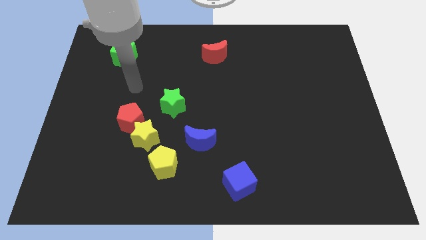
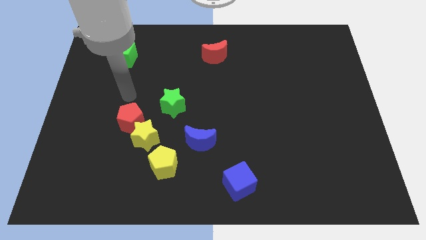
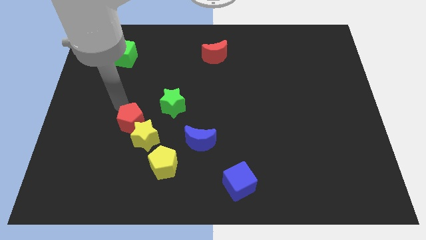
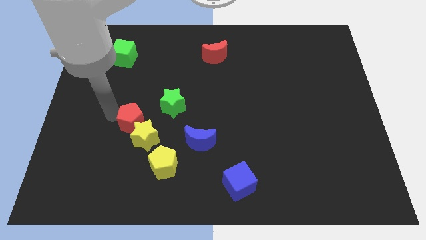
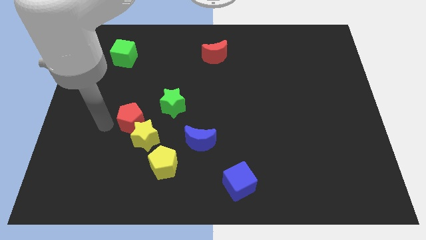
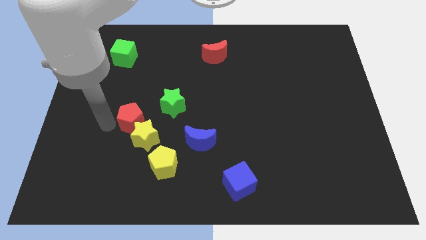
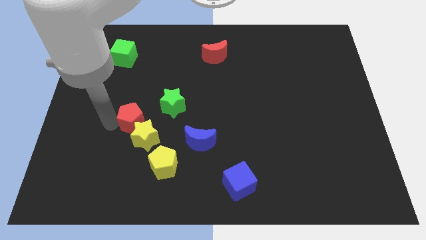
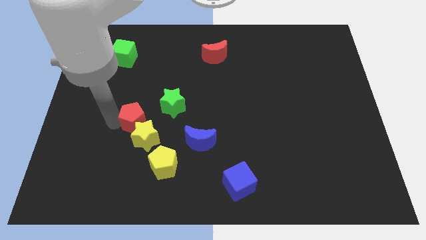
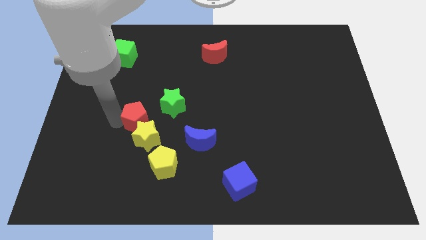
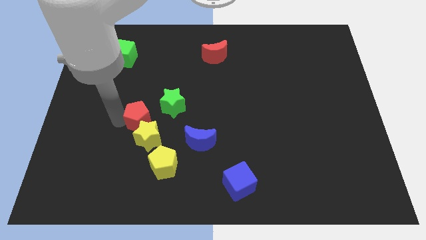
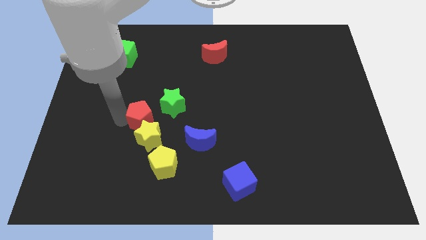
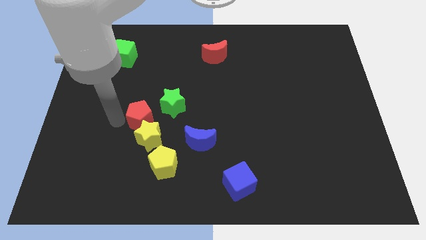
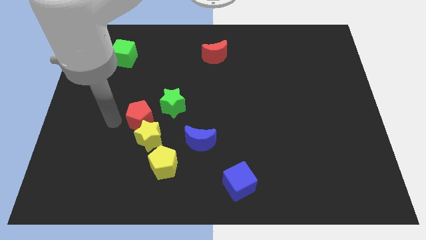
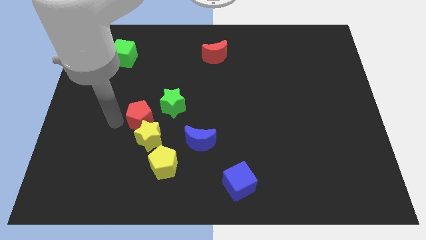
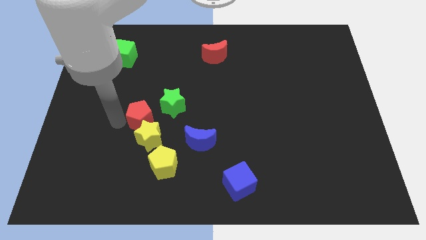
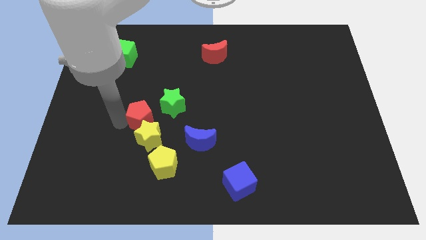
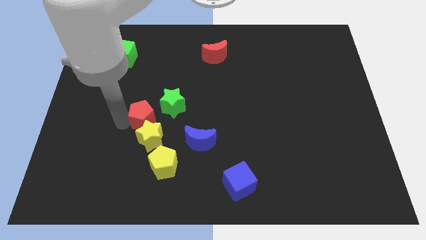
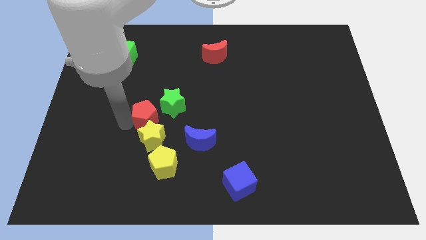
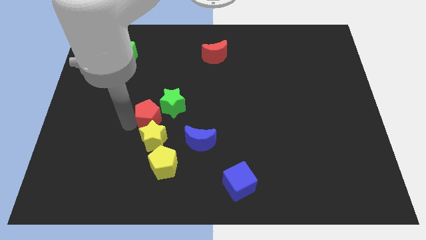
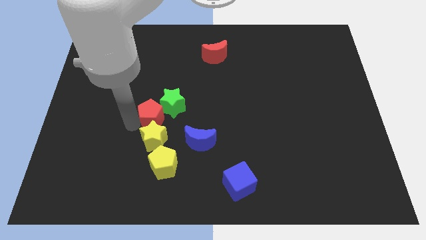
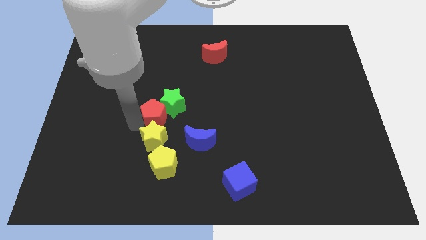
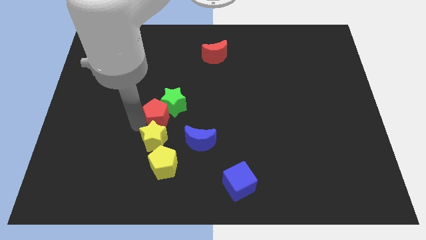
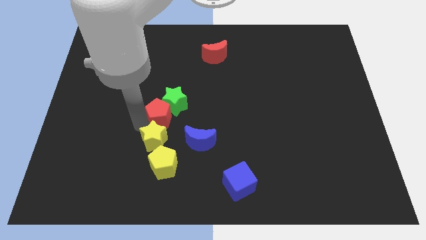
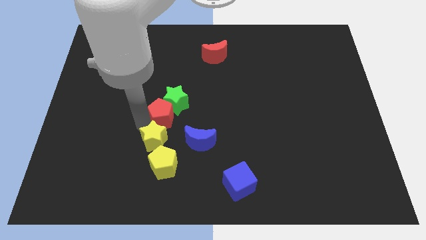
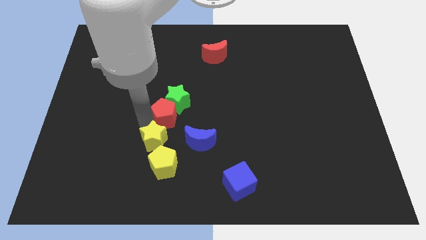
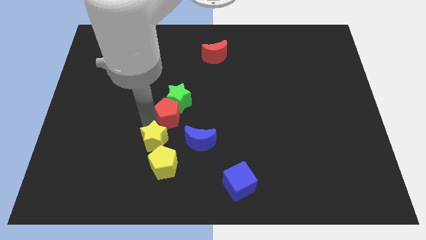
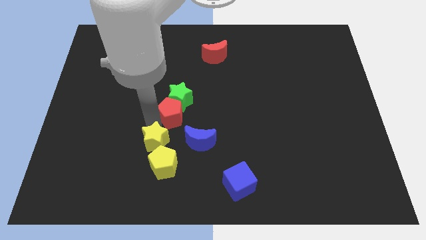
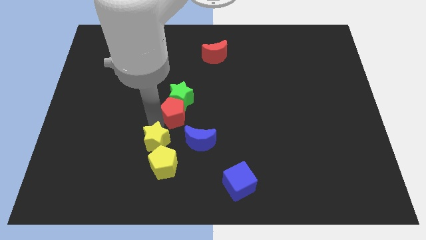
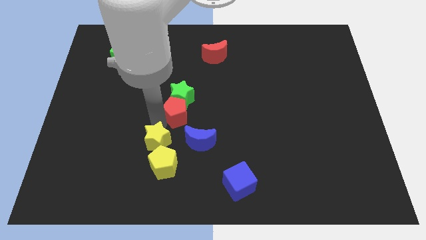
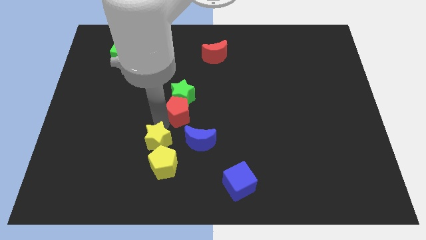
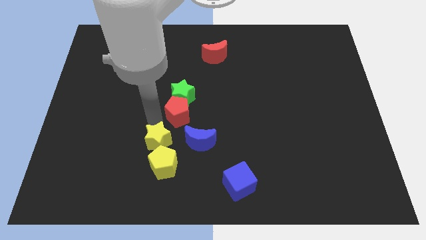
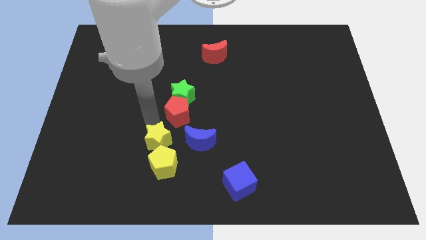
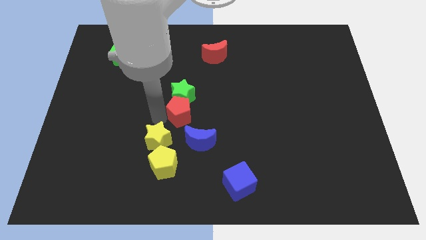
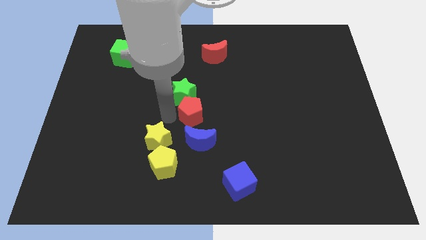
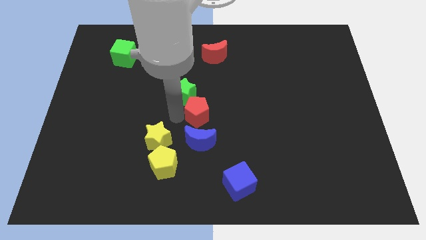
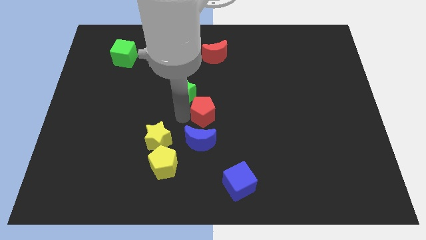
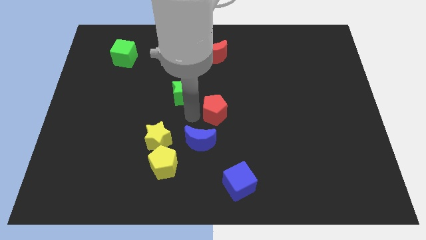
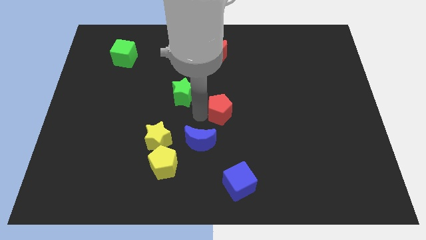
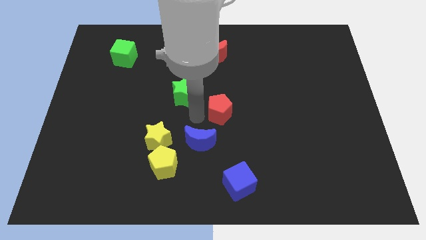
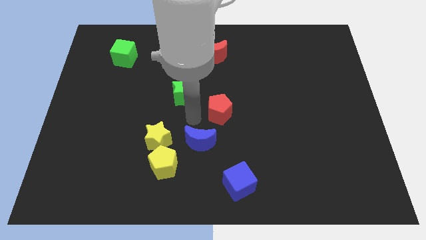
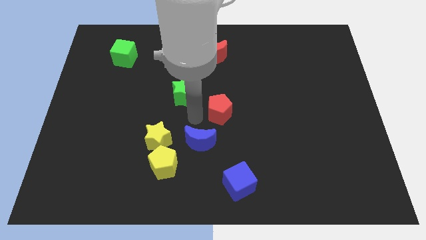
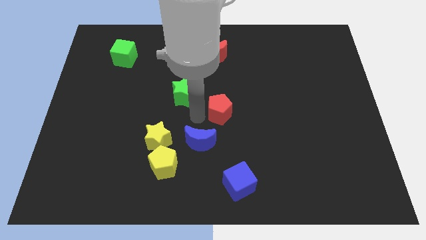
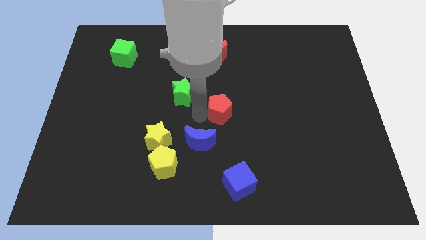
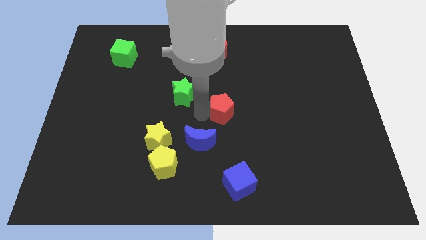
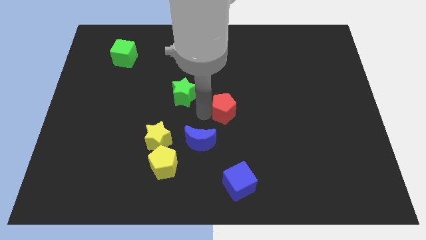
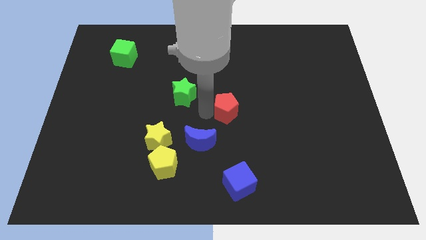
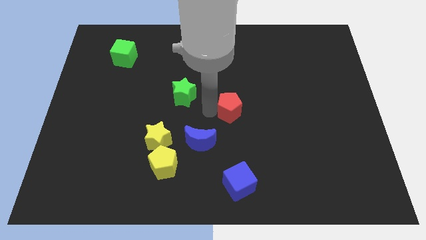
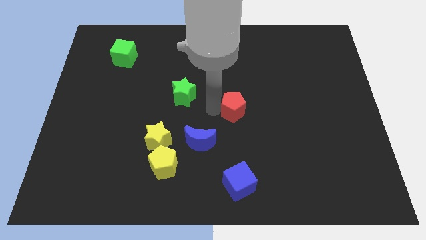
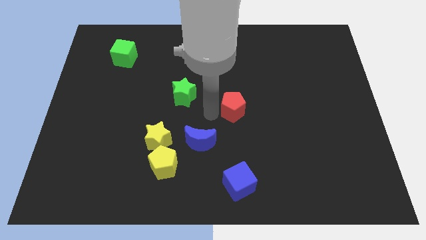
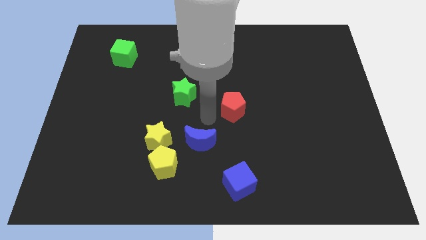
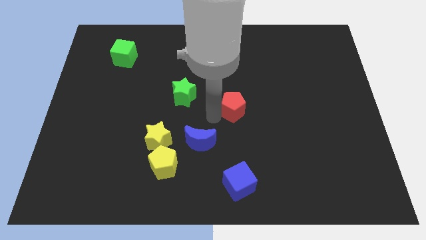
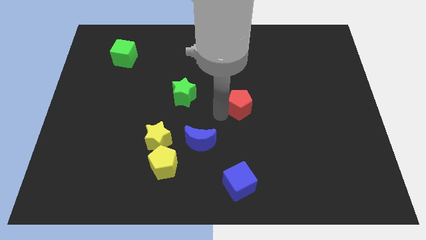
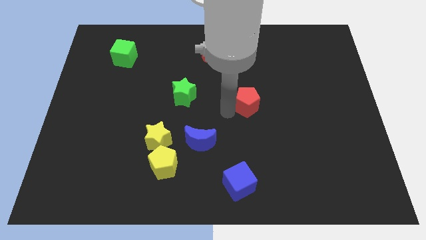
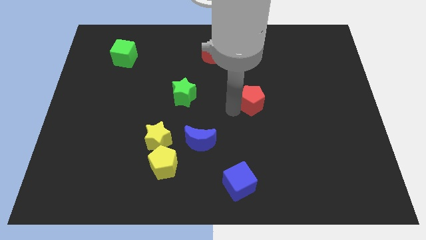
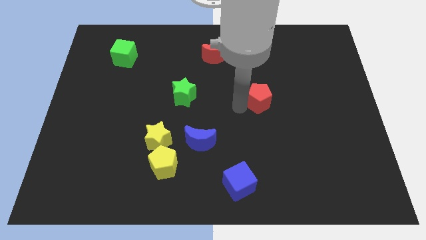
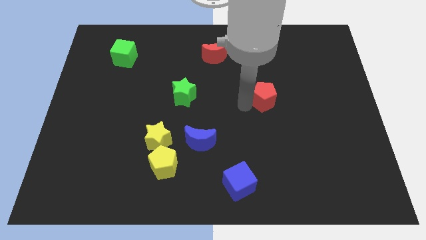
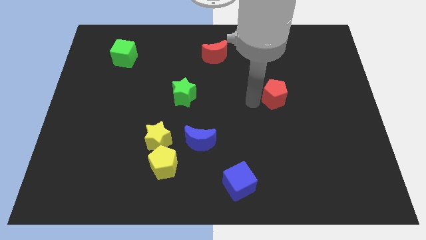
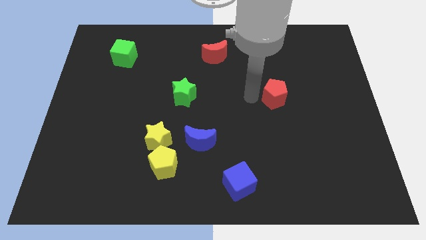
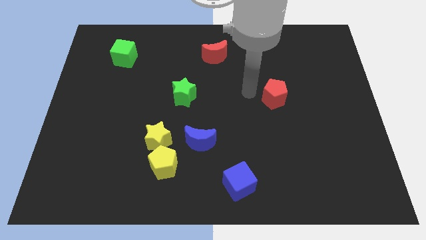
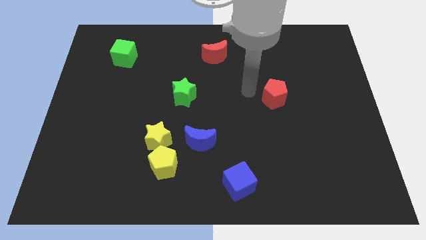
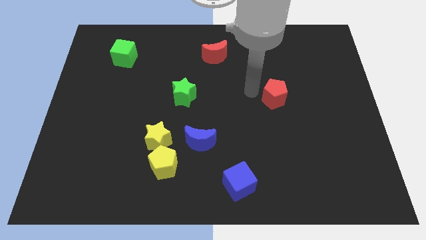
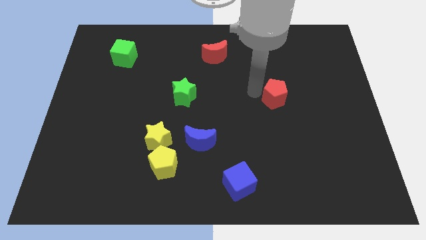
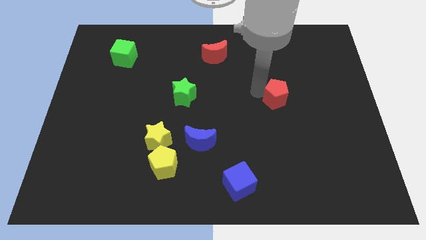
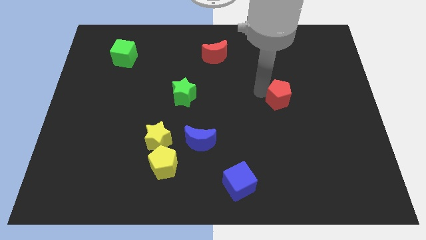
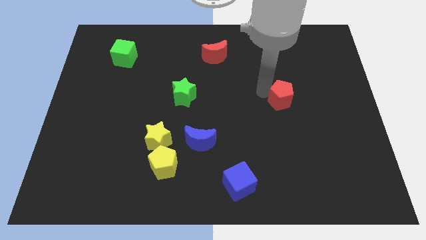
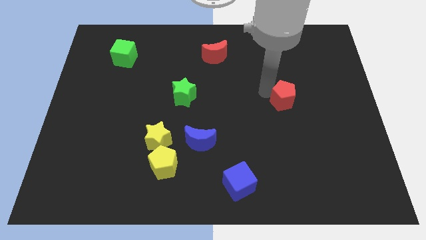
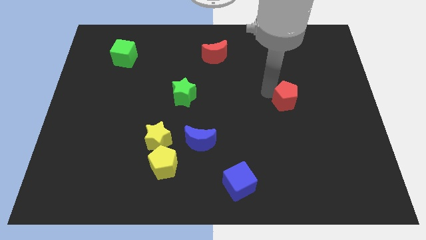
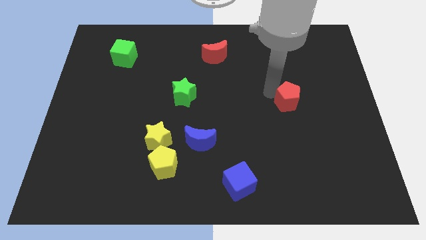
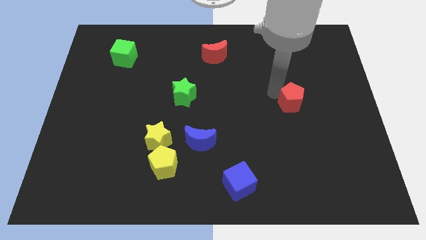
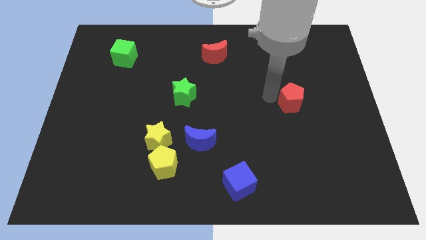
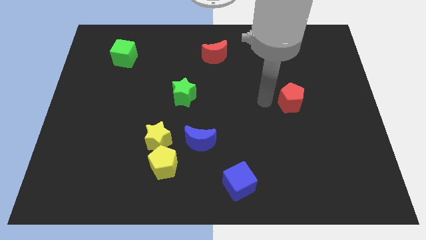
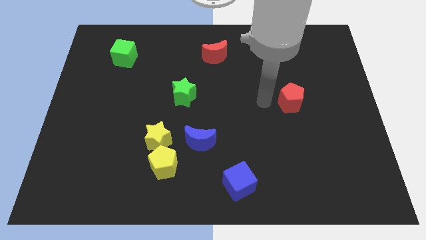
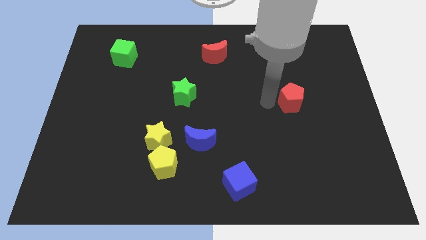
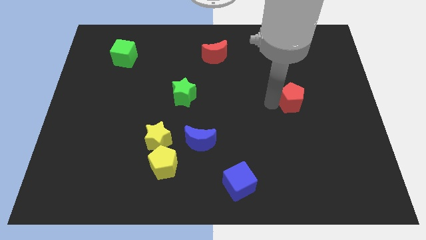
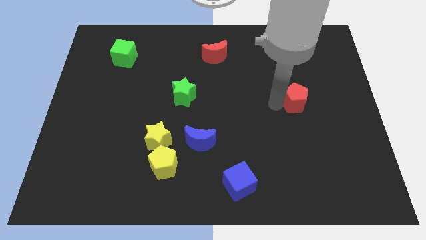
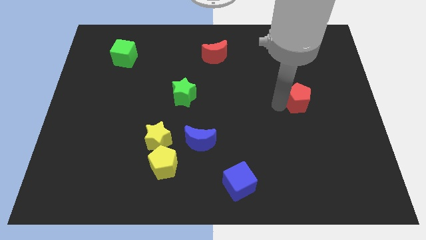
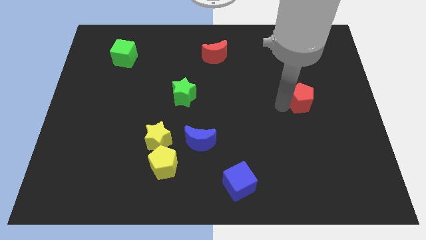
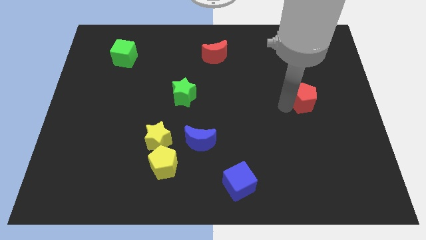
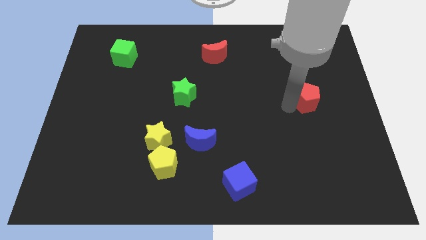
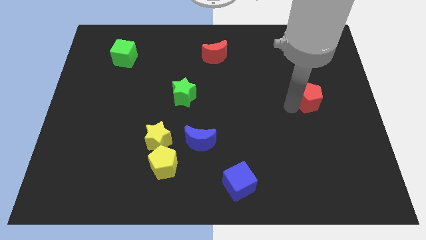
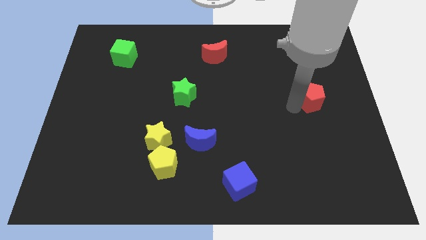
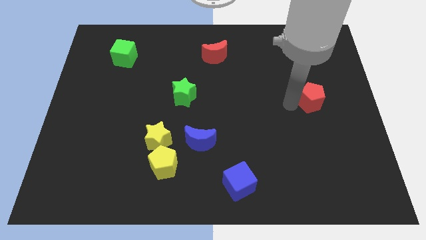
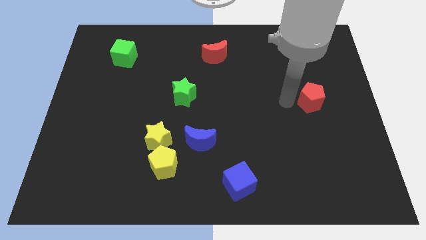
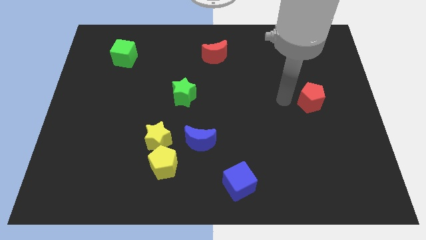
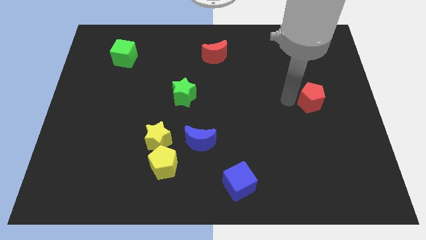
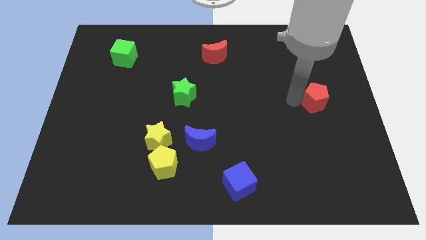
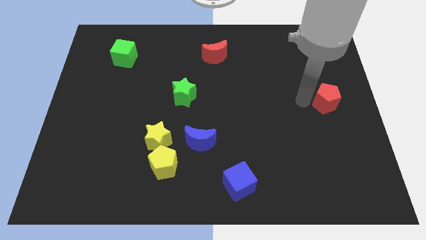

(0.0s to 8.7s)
push the red pentagon to the right side of the board
